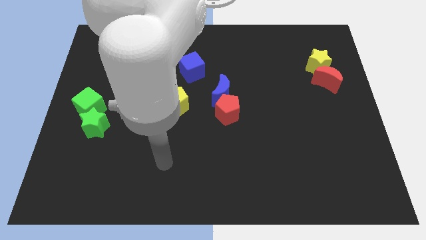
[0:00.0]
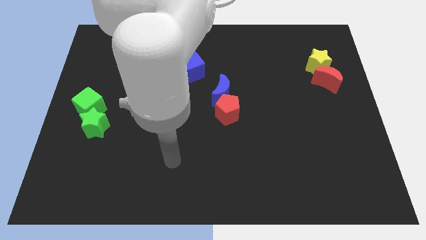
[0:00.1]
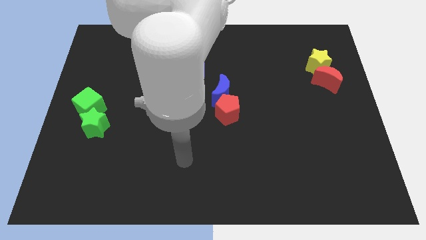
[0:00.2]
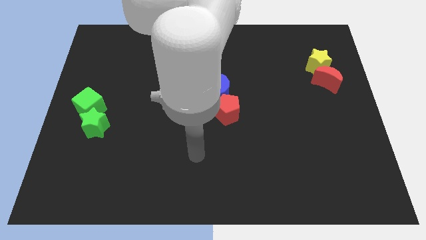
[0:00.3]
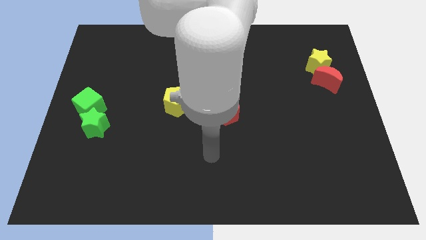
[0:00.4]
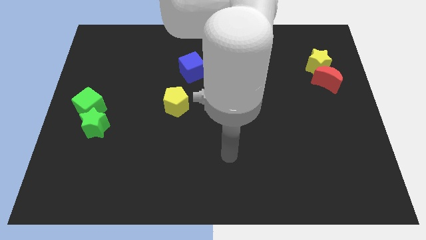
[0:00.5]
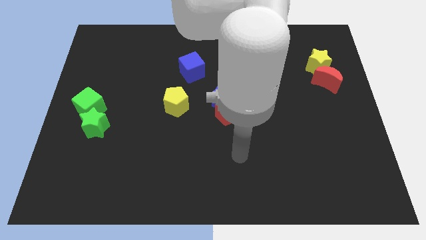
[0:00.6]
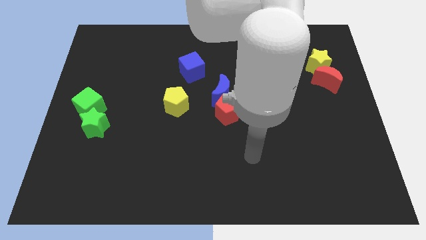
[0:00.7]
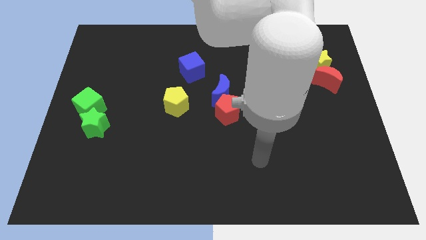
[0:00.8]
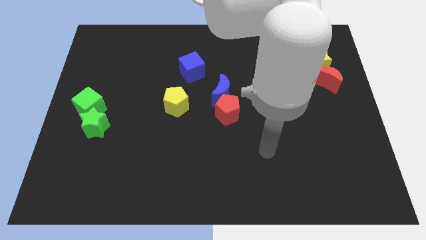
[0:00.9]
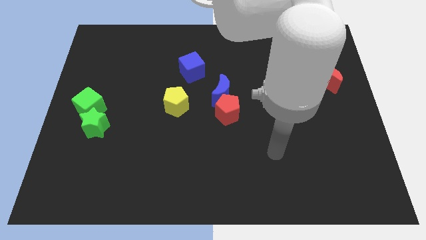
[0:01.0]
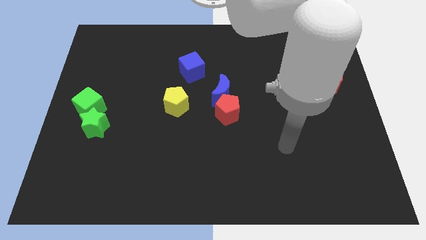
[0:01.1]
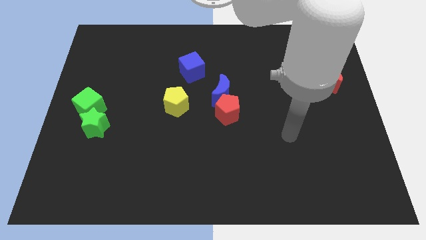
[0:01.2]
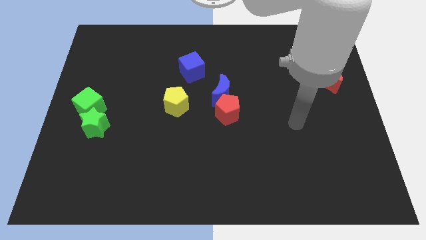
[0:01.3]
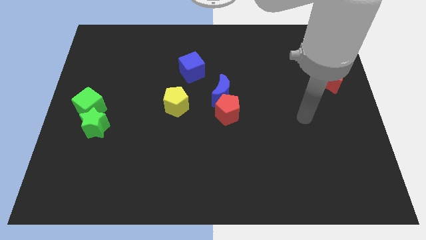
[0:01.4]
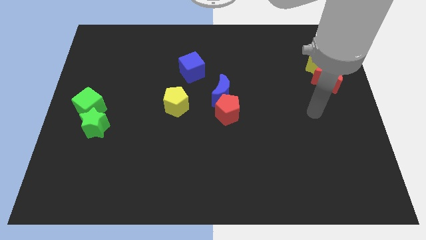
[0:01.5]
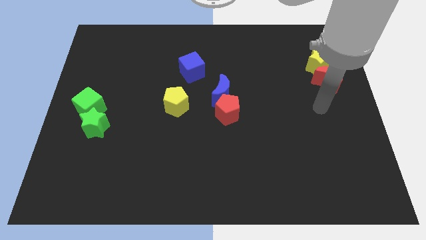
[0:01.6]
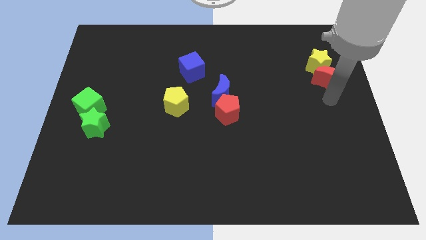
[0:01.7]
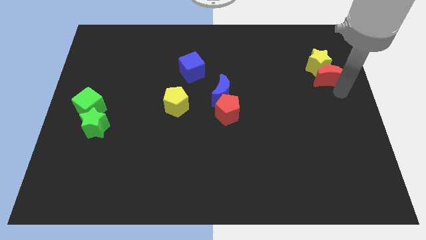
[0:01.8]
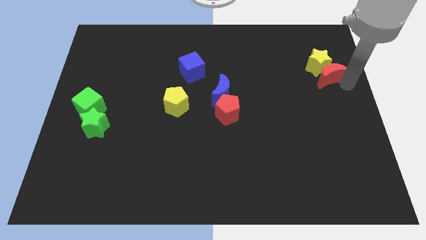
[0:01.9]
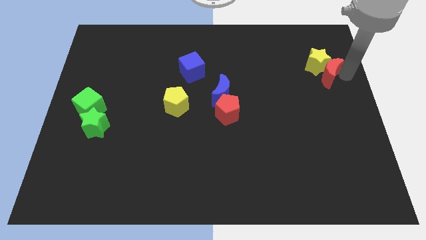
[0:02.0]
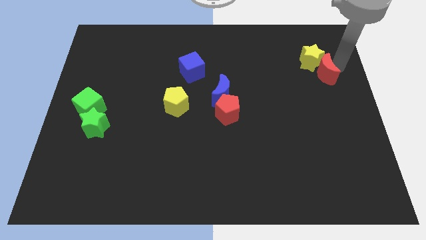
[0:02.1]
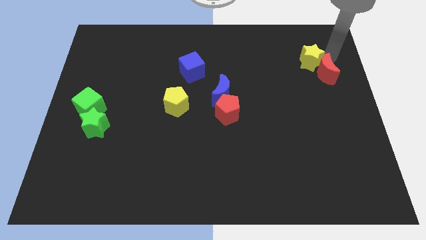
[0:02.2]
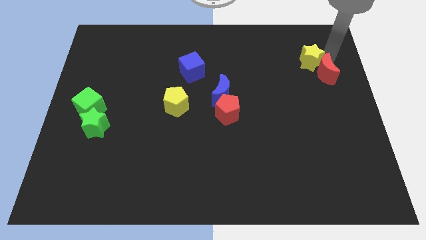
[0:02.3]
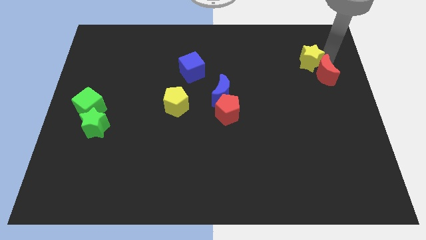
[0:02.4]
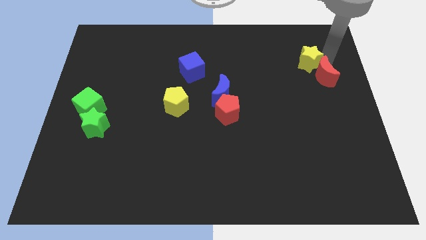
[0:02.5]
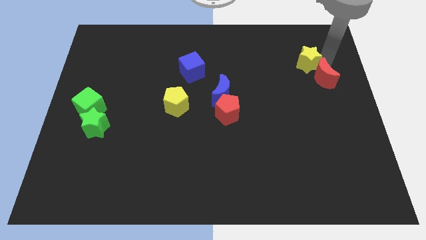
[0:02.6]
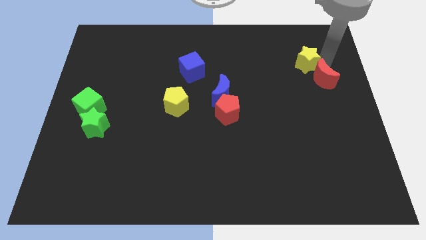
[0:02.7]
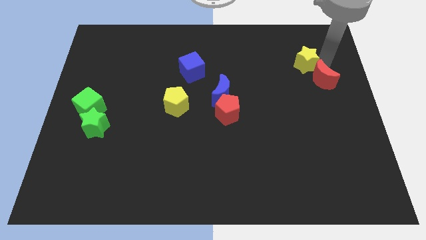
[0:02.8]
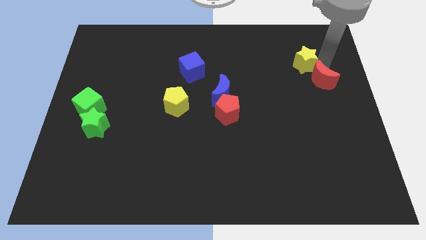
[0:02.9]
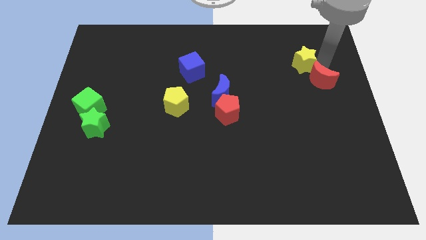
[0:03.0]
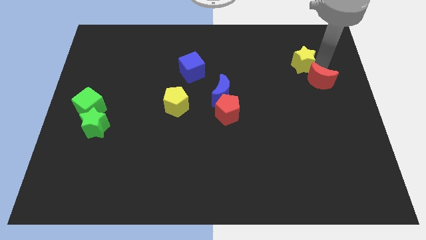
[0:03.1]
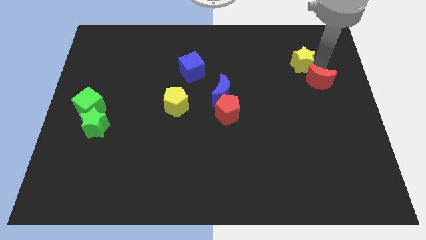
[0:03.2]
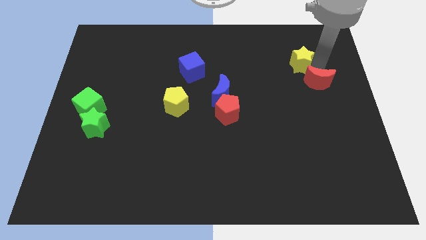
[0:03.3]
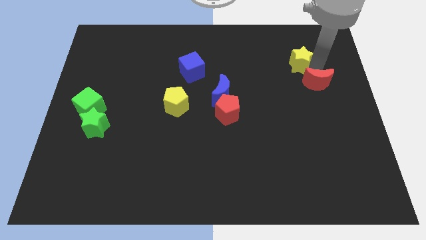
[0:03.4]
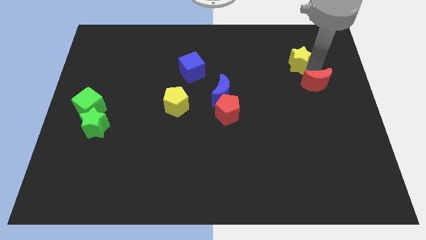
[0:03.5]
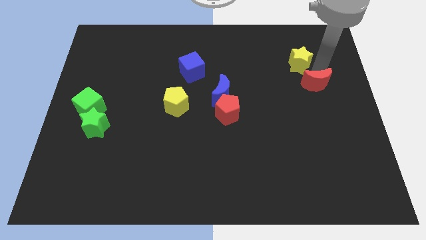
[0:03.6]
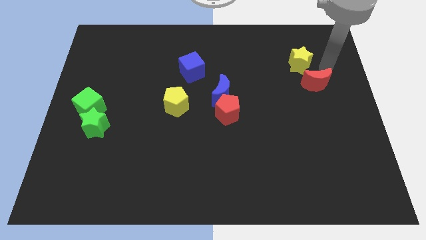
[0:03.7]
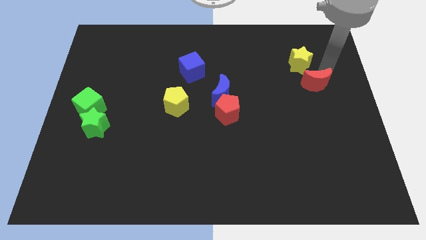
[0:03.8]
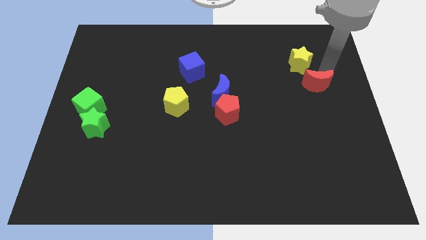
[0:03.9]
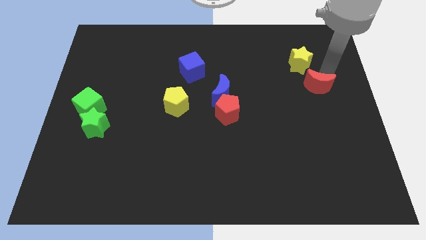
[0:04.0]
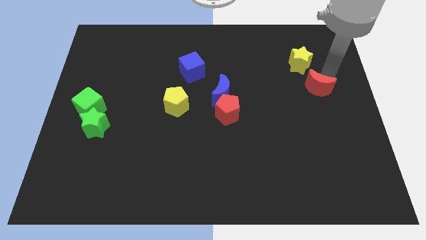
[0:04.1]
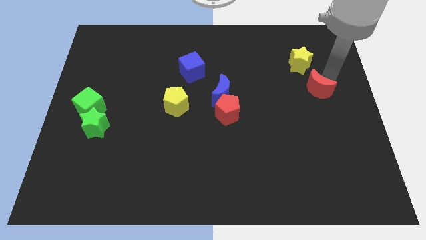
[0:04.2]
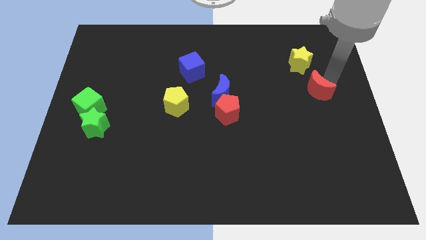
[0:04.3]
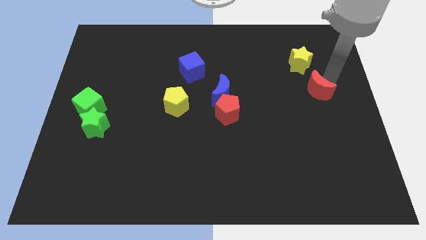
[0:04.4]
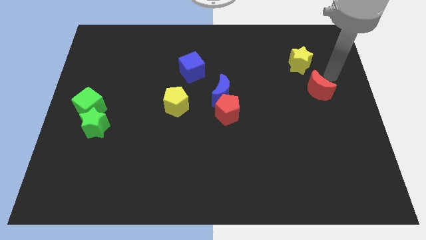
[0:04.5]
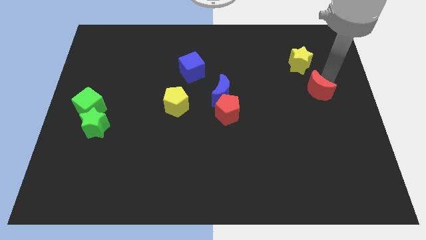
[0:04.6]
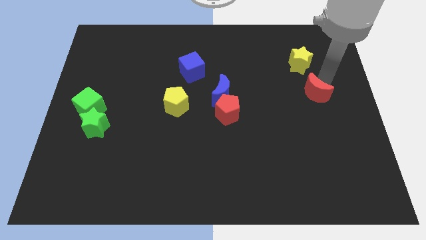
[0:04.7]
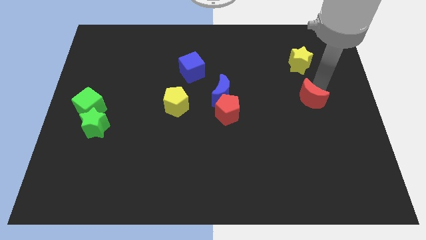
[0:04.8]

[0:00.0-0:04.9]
slightly slide the red moon down and then to the left

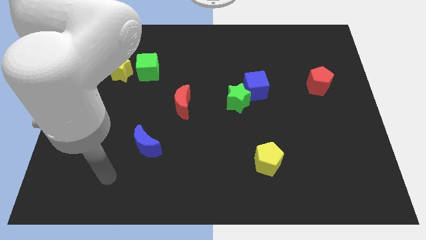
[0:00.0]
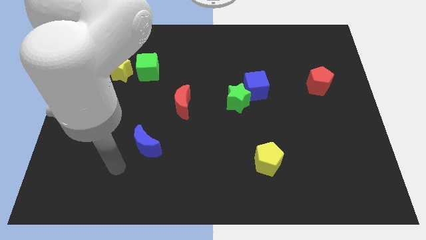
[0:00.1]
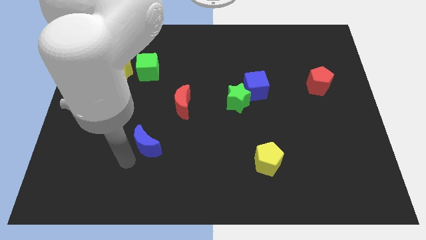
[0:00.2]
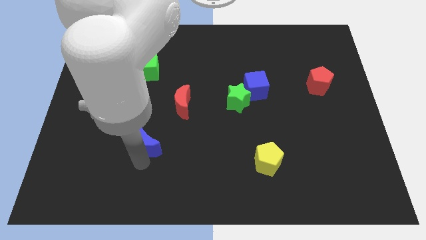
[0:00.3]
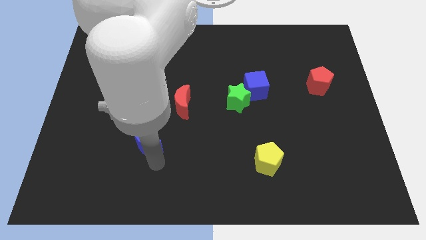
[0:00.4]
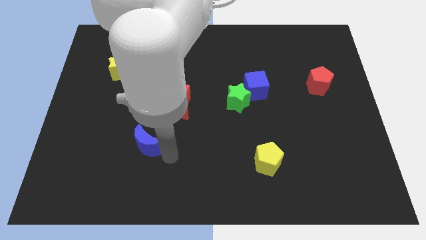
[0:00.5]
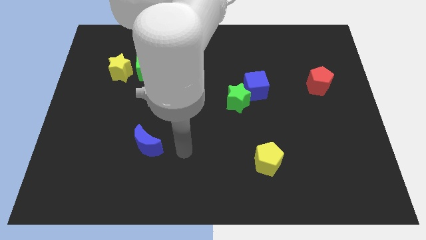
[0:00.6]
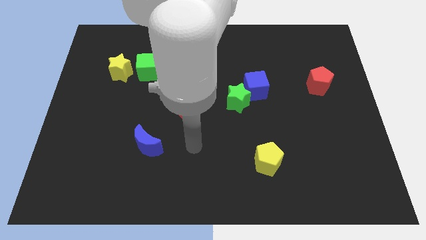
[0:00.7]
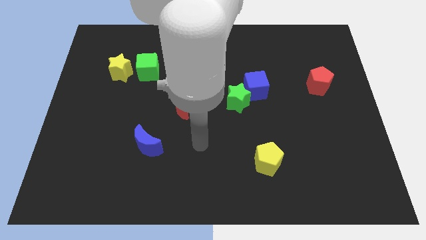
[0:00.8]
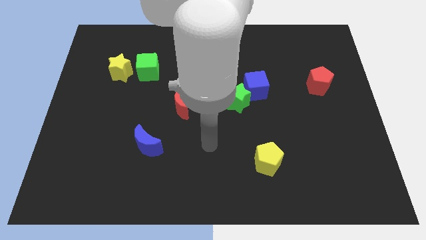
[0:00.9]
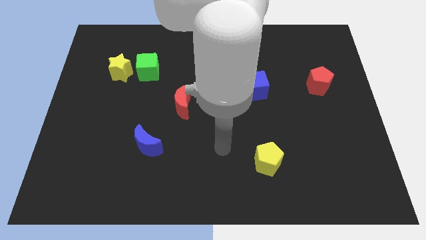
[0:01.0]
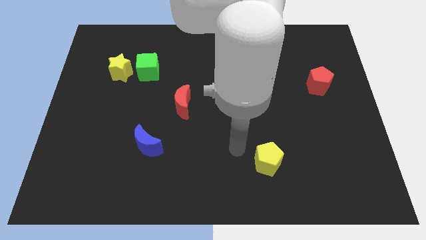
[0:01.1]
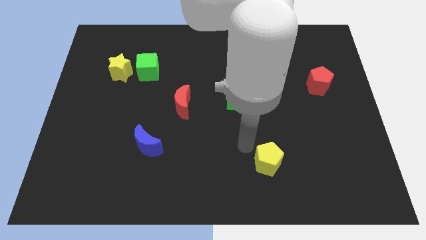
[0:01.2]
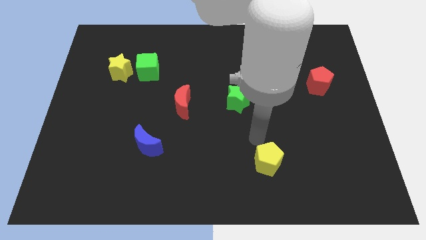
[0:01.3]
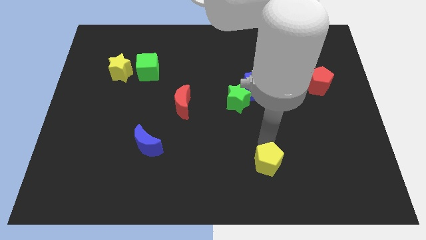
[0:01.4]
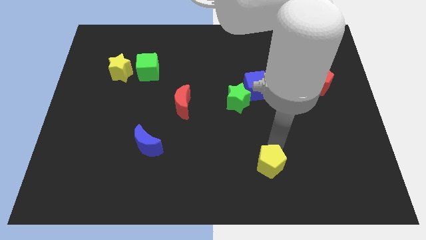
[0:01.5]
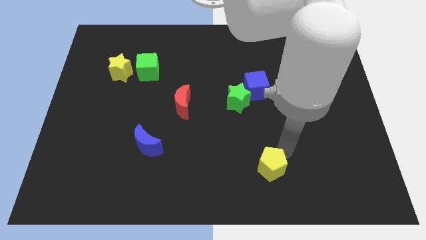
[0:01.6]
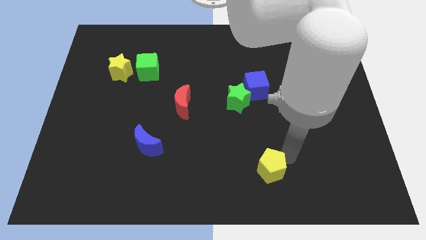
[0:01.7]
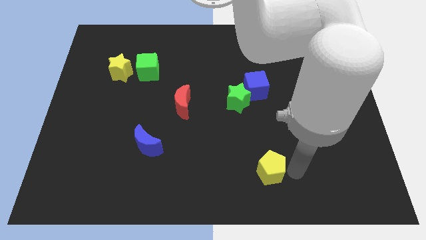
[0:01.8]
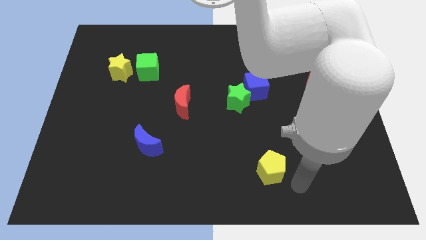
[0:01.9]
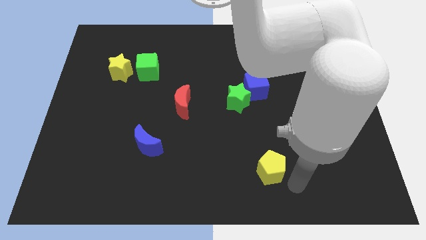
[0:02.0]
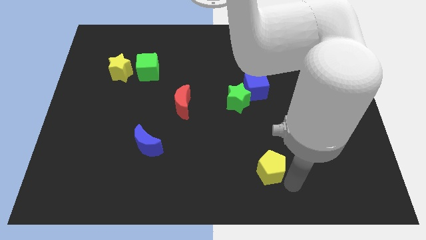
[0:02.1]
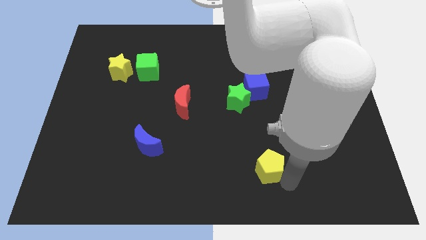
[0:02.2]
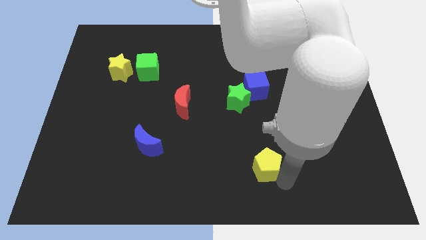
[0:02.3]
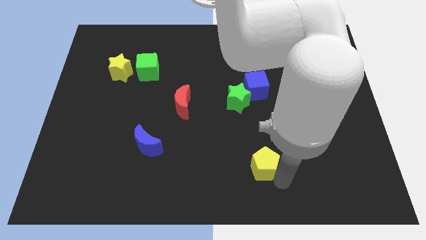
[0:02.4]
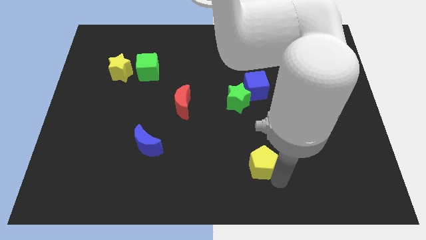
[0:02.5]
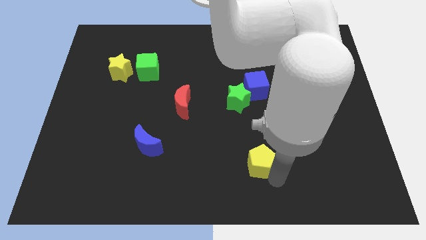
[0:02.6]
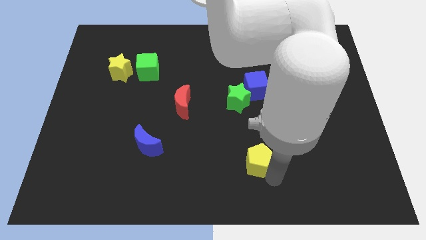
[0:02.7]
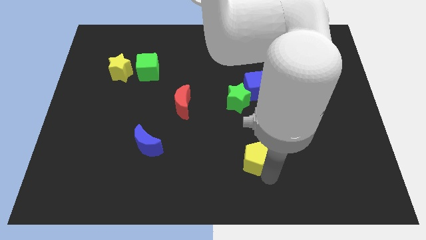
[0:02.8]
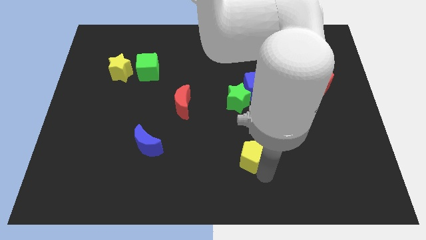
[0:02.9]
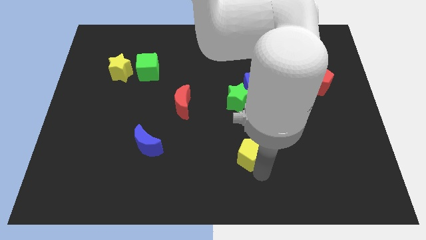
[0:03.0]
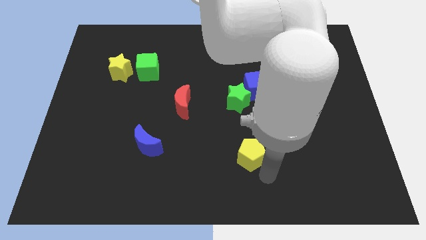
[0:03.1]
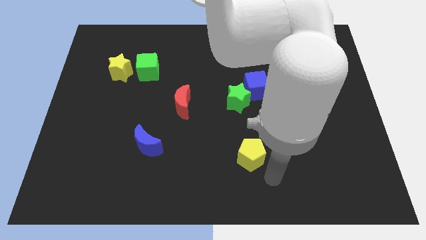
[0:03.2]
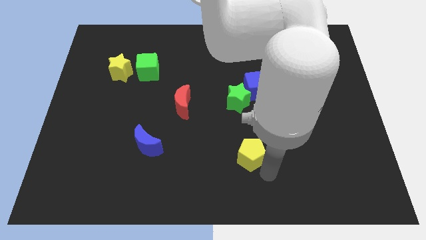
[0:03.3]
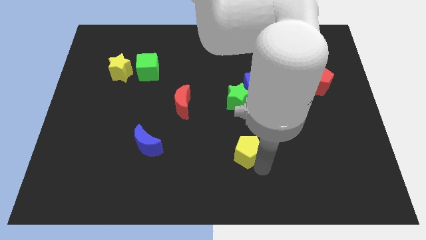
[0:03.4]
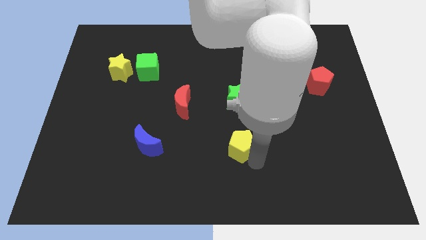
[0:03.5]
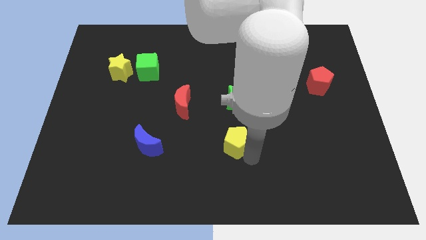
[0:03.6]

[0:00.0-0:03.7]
slightly move the yellow pentagon upwards and then to the left
